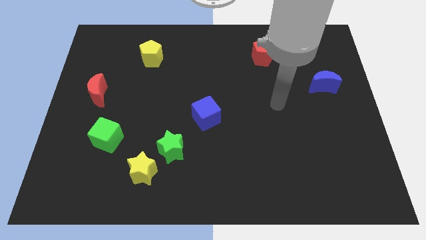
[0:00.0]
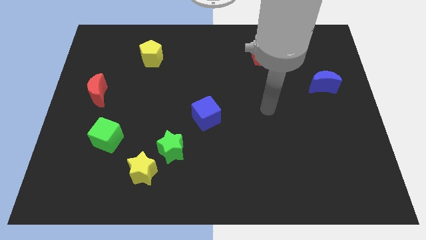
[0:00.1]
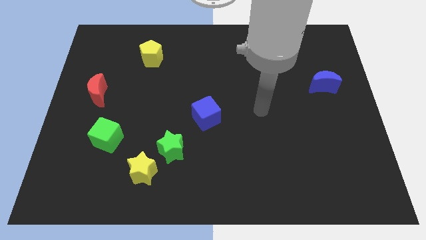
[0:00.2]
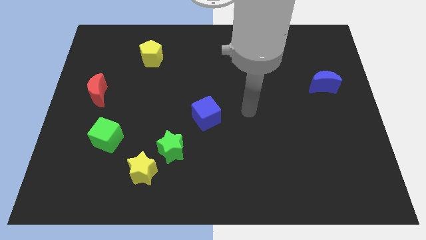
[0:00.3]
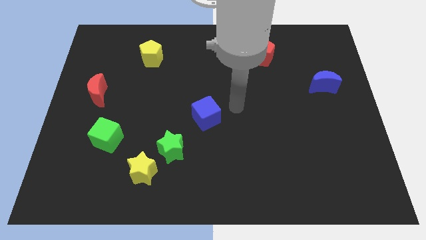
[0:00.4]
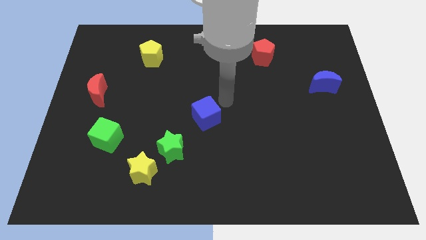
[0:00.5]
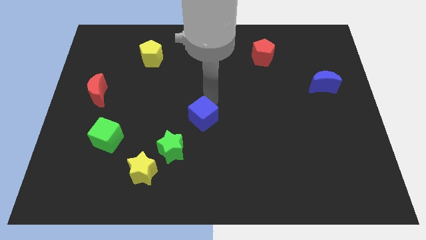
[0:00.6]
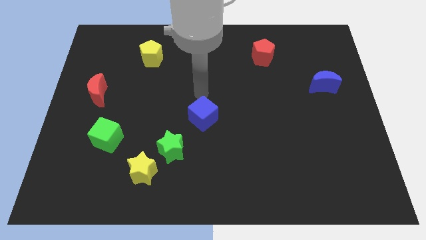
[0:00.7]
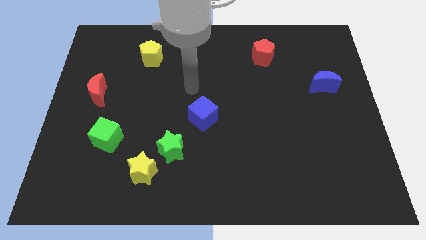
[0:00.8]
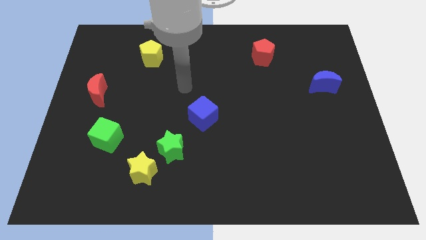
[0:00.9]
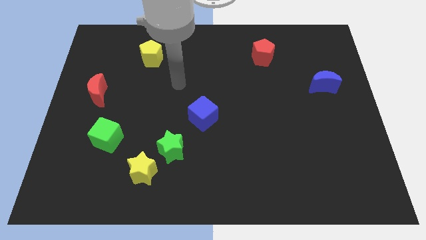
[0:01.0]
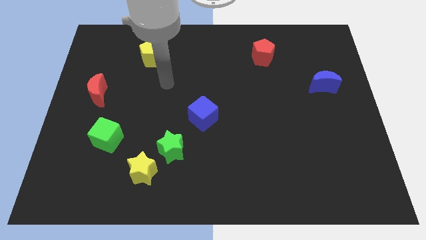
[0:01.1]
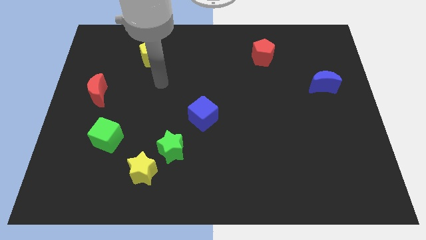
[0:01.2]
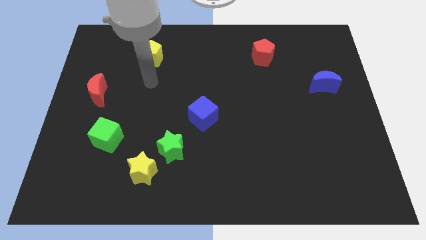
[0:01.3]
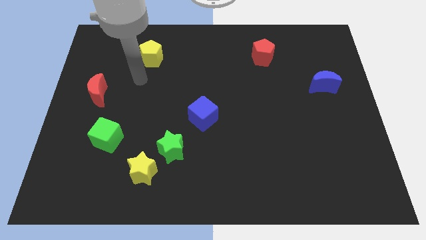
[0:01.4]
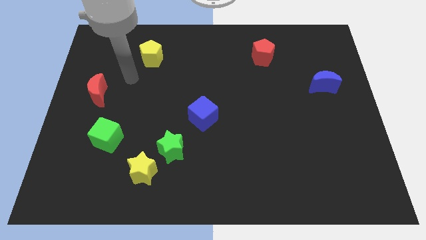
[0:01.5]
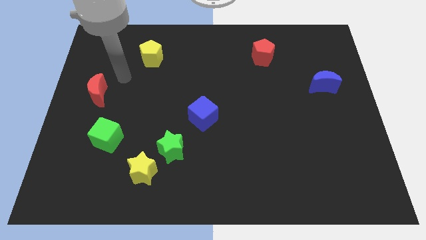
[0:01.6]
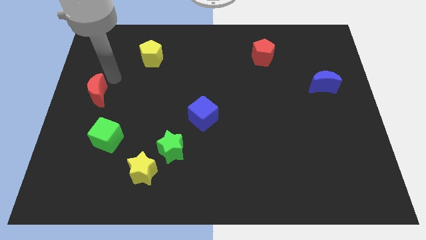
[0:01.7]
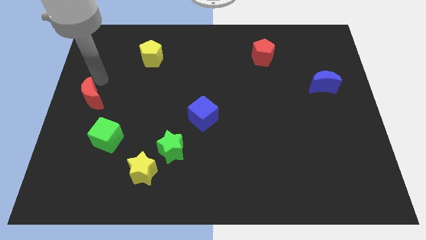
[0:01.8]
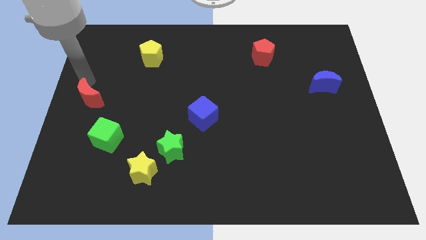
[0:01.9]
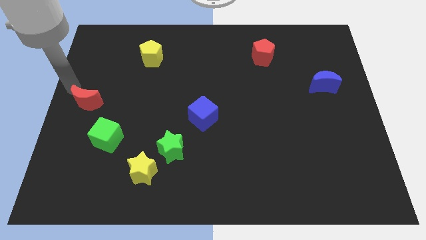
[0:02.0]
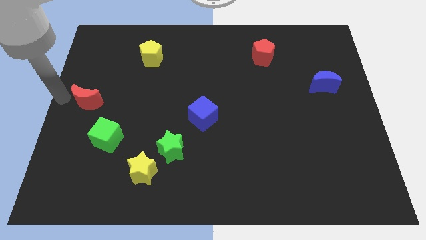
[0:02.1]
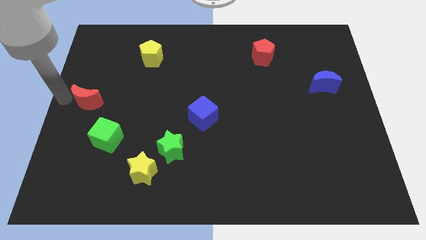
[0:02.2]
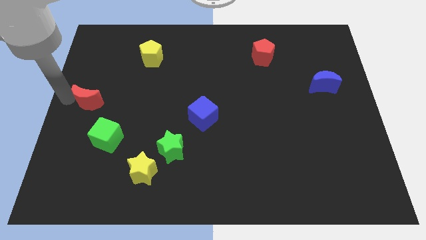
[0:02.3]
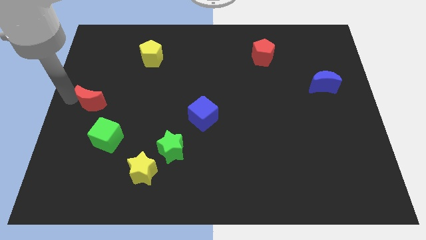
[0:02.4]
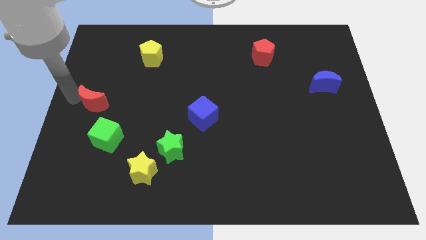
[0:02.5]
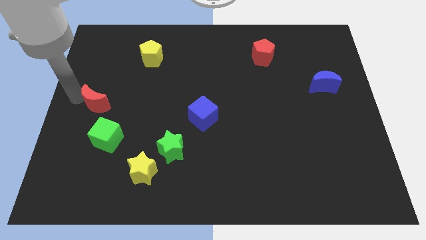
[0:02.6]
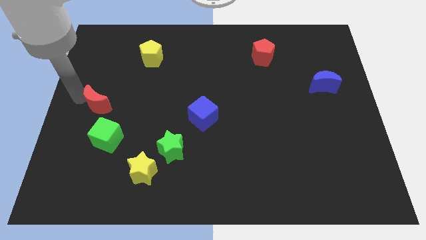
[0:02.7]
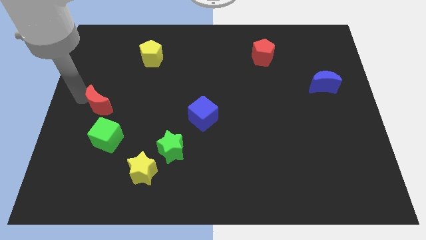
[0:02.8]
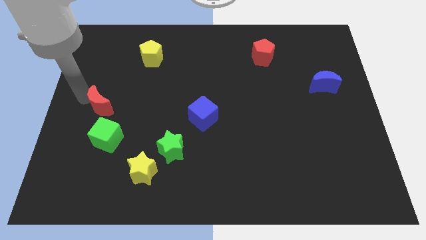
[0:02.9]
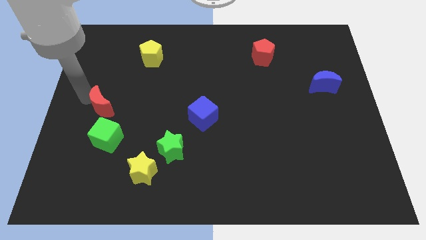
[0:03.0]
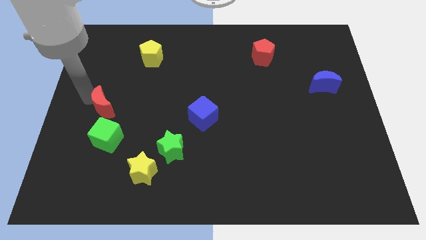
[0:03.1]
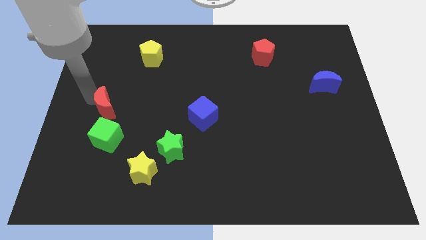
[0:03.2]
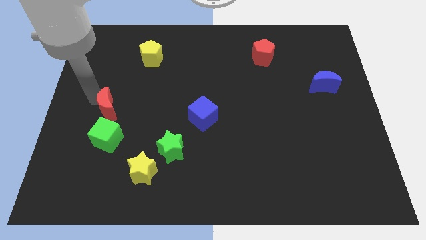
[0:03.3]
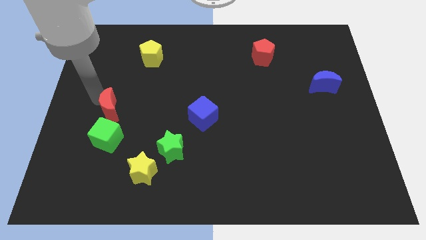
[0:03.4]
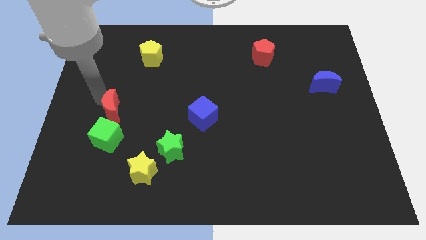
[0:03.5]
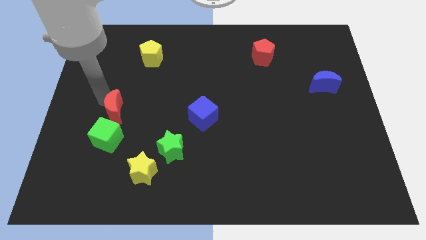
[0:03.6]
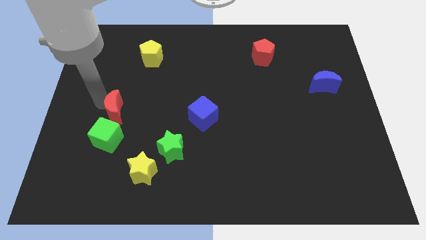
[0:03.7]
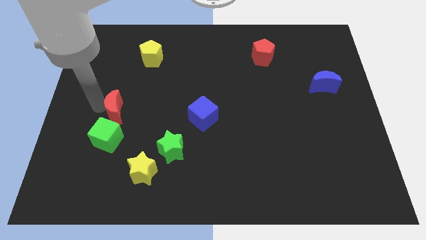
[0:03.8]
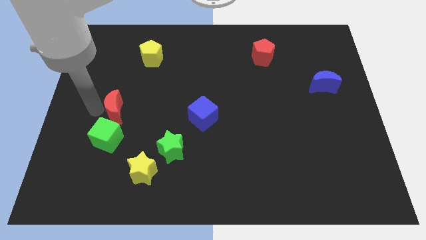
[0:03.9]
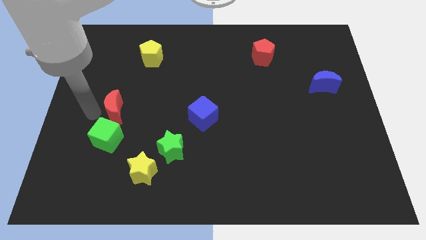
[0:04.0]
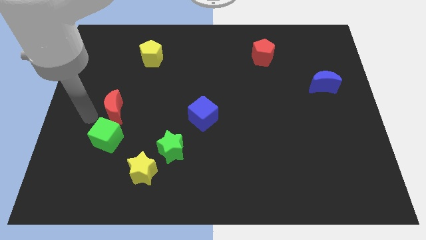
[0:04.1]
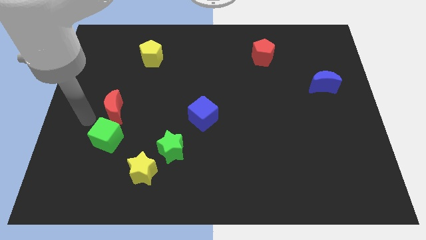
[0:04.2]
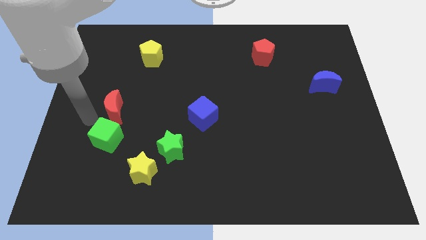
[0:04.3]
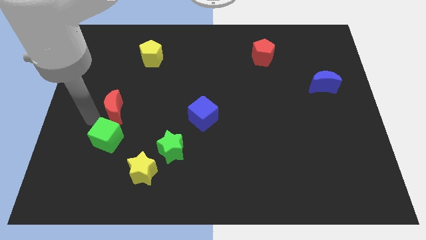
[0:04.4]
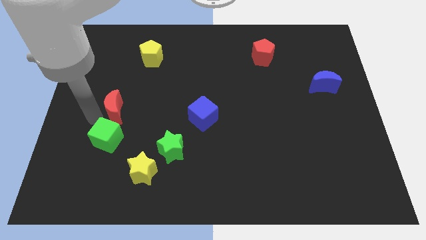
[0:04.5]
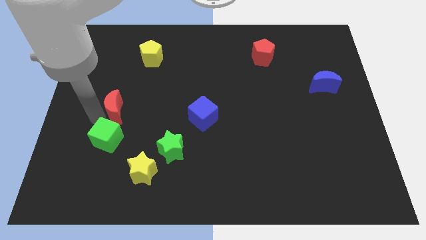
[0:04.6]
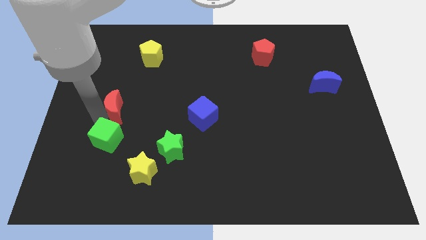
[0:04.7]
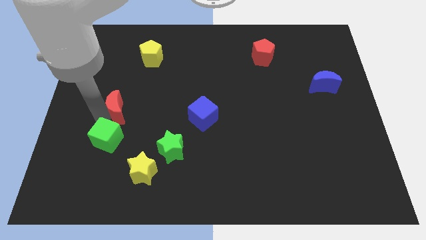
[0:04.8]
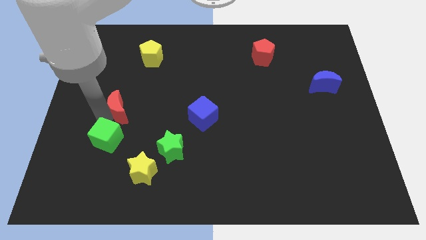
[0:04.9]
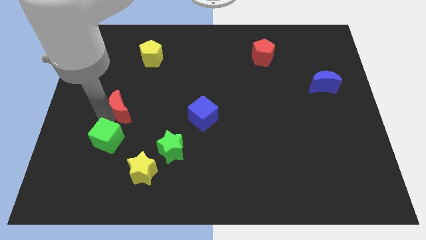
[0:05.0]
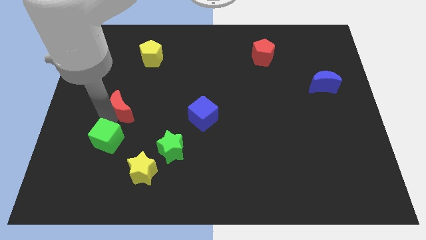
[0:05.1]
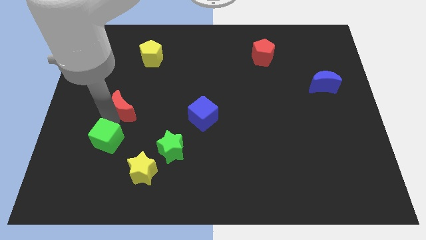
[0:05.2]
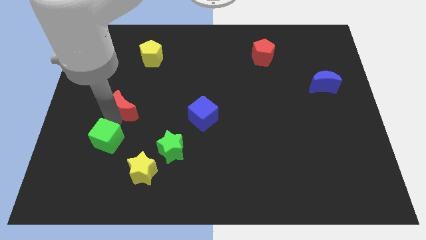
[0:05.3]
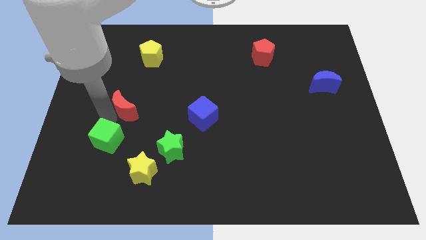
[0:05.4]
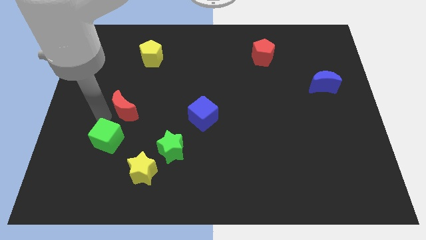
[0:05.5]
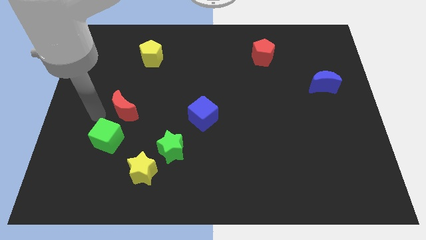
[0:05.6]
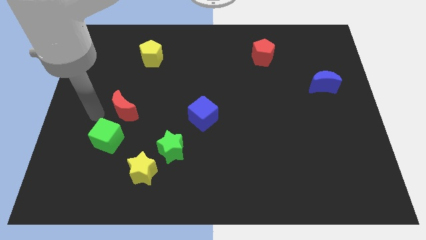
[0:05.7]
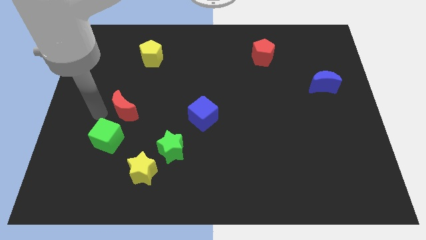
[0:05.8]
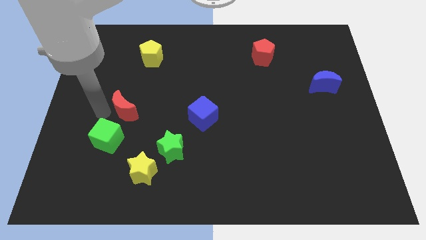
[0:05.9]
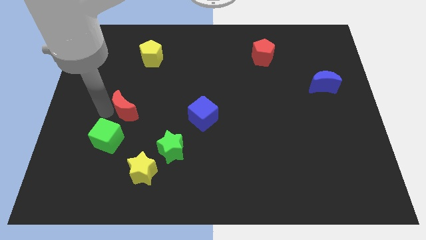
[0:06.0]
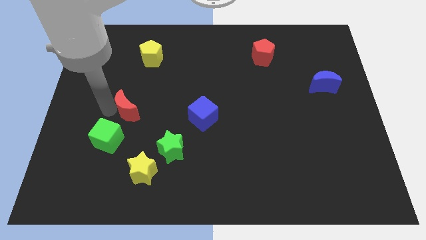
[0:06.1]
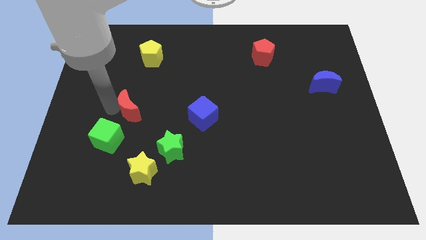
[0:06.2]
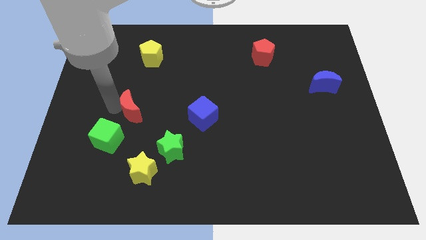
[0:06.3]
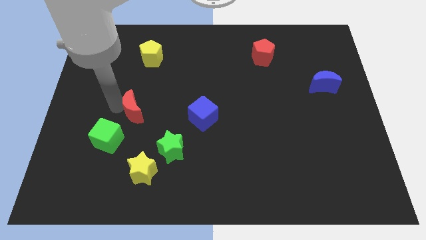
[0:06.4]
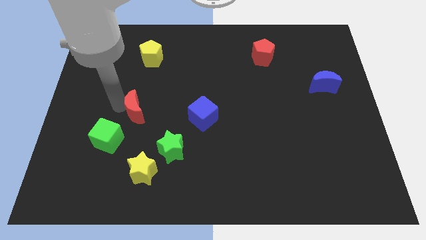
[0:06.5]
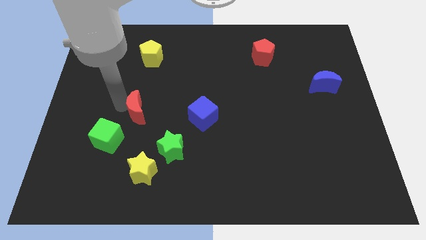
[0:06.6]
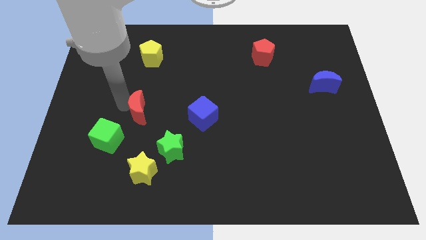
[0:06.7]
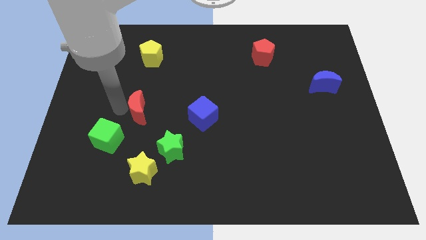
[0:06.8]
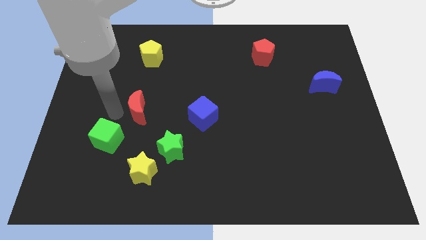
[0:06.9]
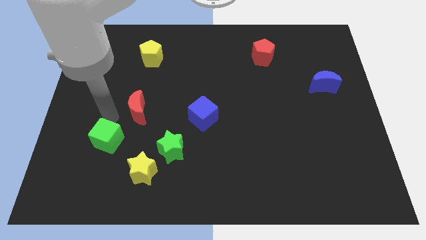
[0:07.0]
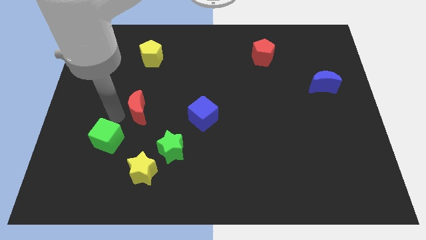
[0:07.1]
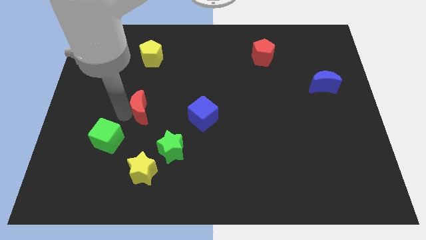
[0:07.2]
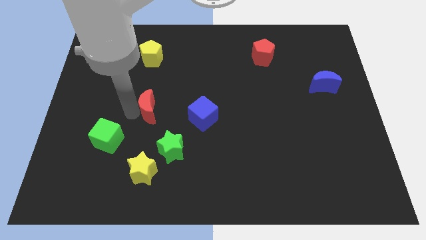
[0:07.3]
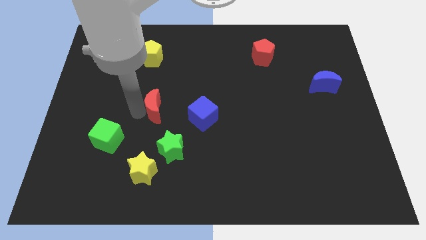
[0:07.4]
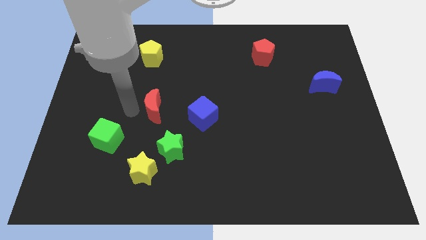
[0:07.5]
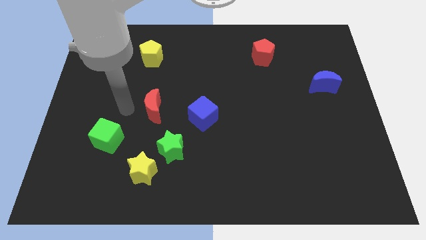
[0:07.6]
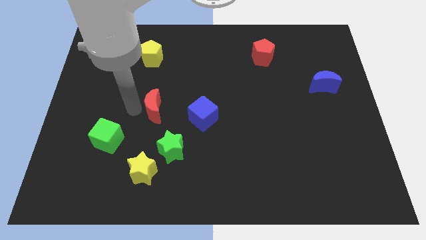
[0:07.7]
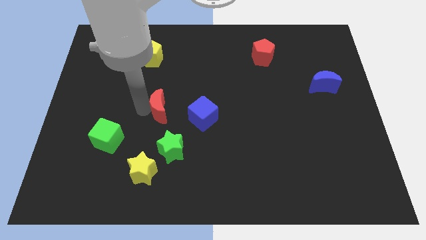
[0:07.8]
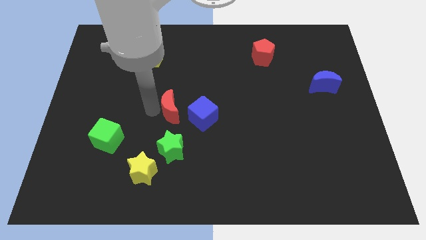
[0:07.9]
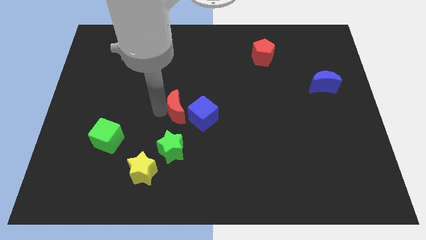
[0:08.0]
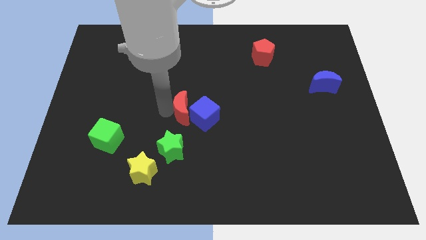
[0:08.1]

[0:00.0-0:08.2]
move the red moon next to the blue cube
